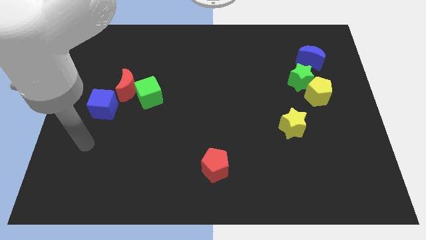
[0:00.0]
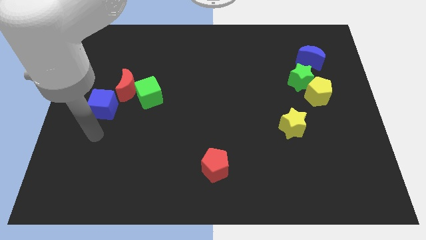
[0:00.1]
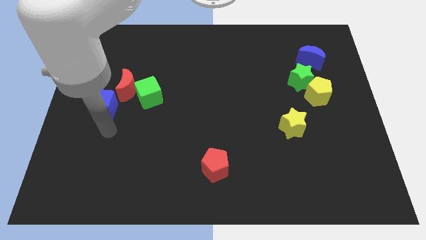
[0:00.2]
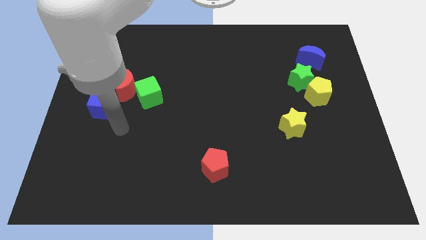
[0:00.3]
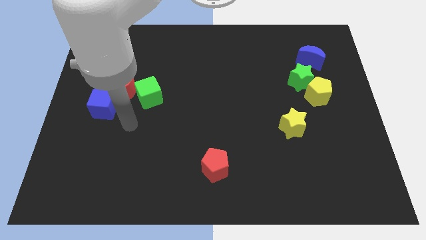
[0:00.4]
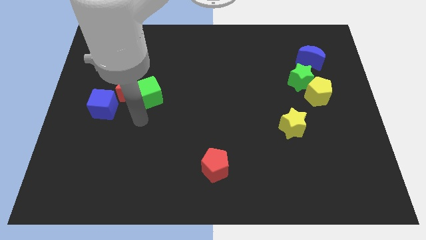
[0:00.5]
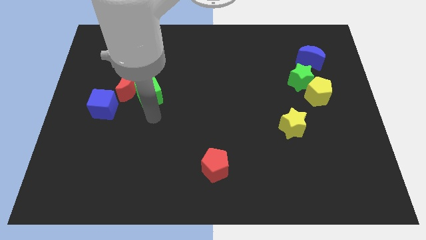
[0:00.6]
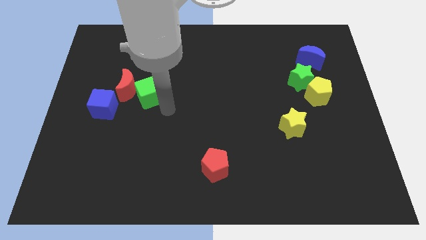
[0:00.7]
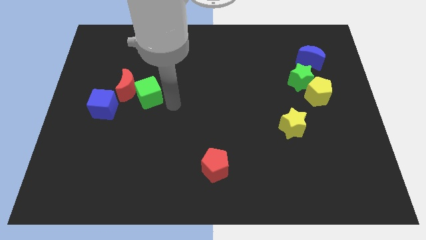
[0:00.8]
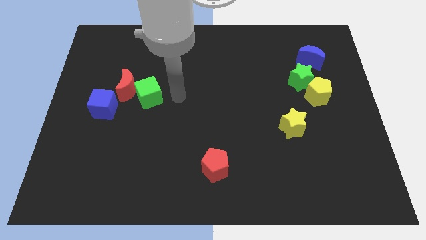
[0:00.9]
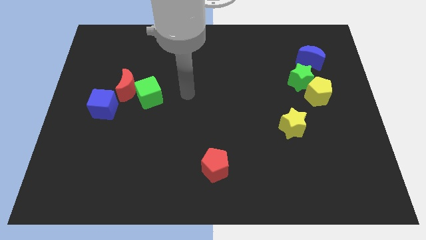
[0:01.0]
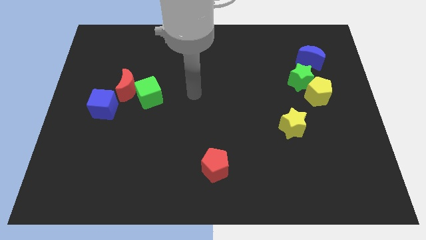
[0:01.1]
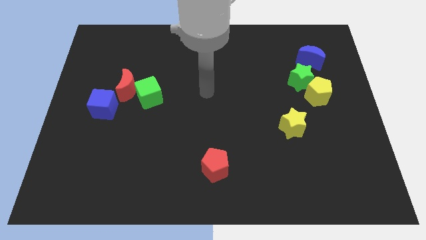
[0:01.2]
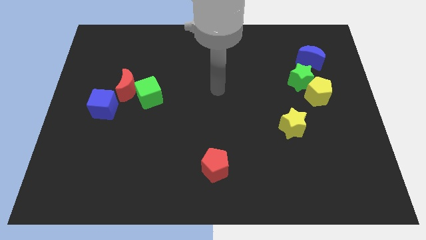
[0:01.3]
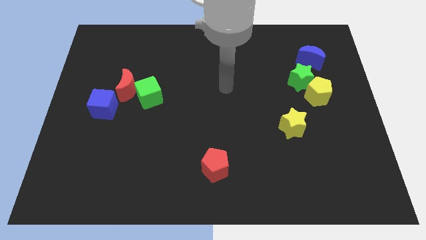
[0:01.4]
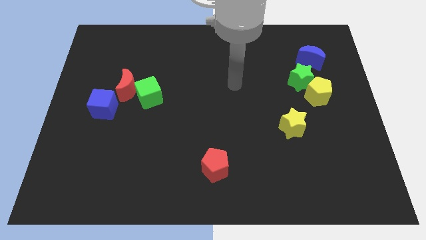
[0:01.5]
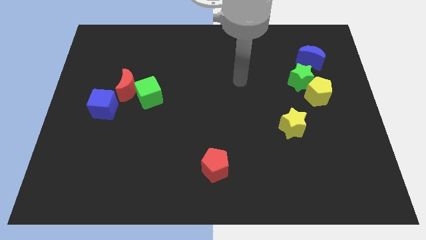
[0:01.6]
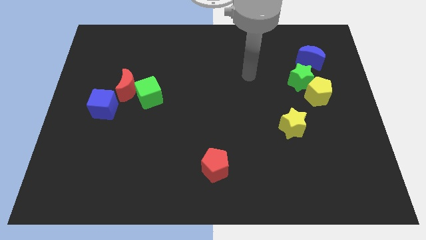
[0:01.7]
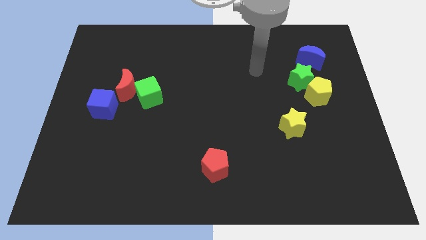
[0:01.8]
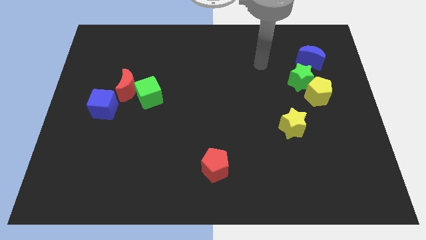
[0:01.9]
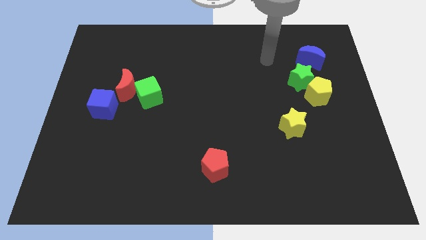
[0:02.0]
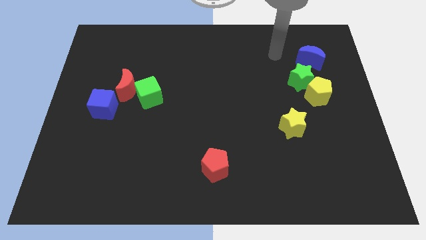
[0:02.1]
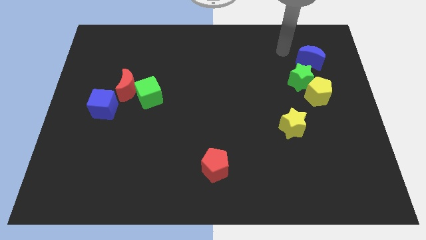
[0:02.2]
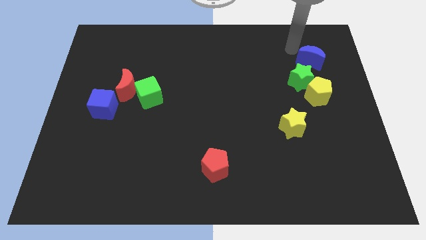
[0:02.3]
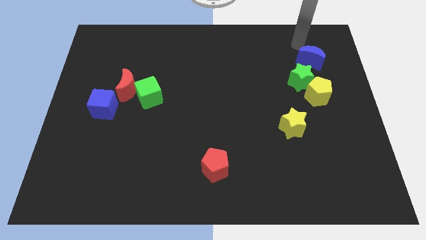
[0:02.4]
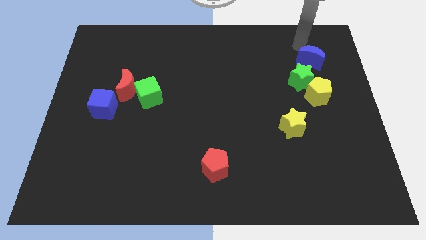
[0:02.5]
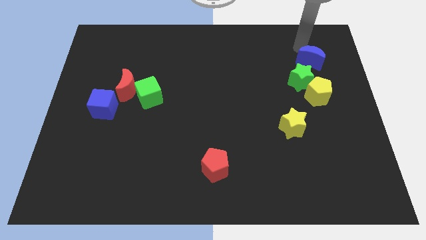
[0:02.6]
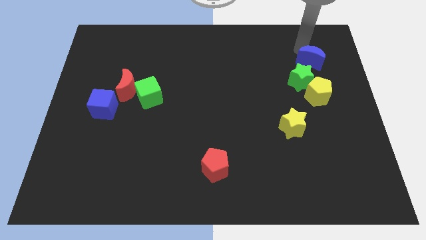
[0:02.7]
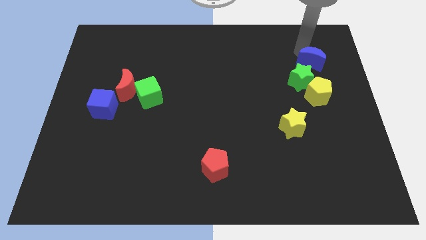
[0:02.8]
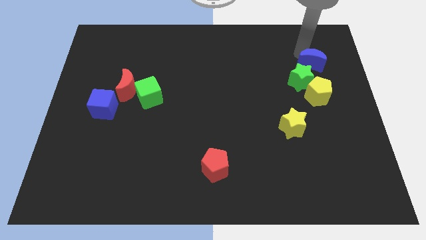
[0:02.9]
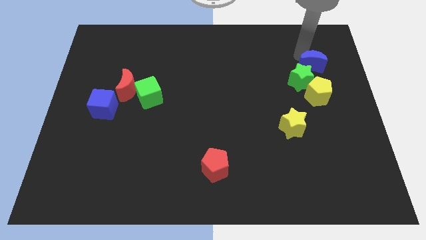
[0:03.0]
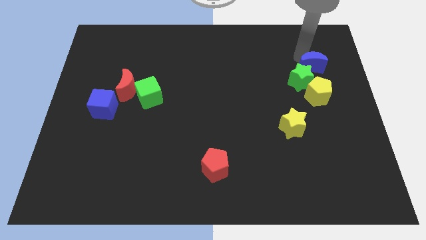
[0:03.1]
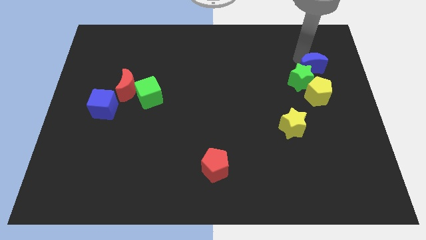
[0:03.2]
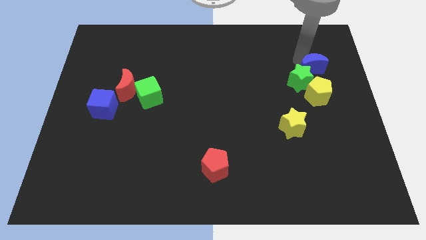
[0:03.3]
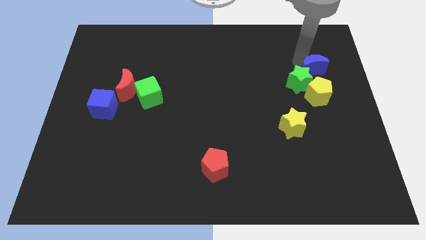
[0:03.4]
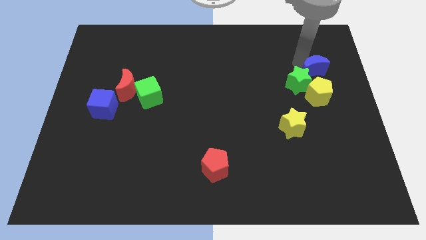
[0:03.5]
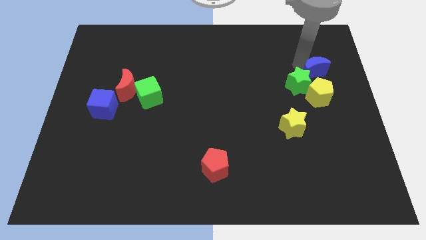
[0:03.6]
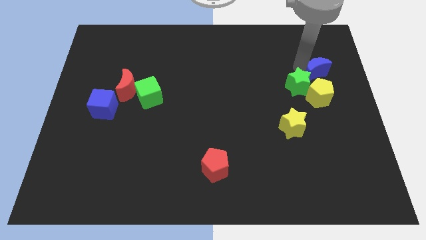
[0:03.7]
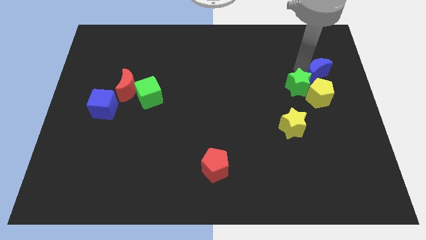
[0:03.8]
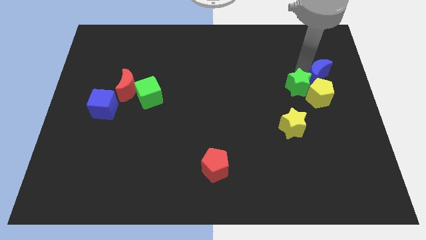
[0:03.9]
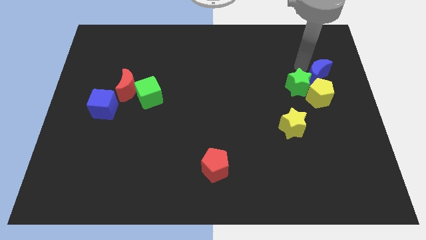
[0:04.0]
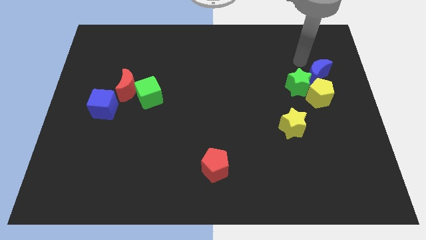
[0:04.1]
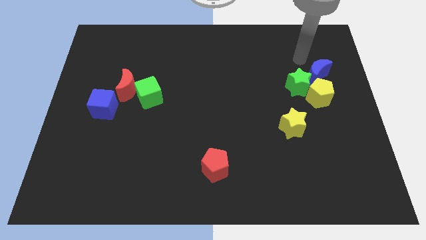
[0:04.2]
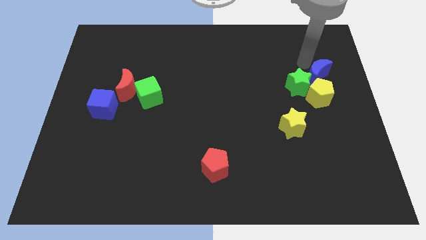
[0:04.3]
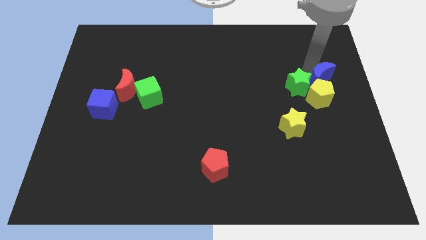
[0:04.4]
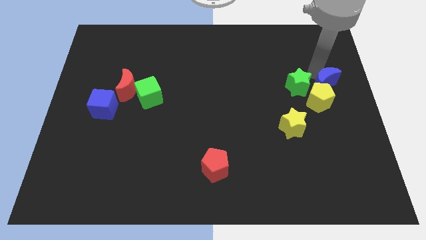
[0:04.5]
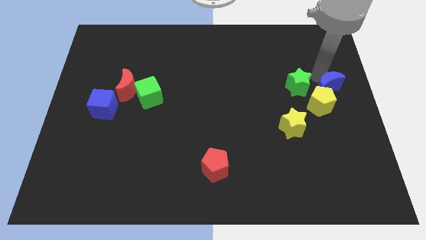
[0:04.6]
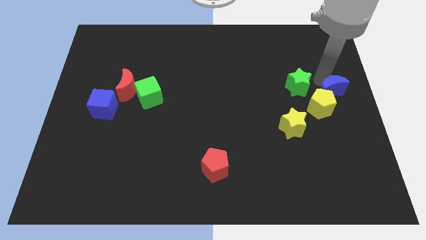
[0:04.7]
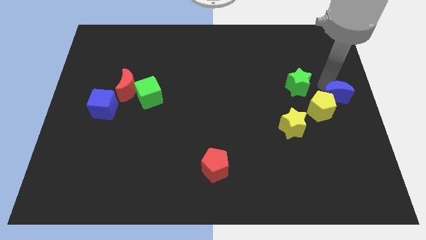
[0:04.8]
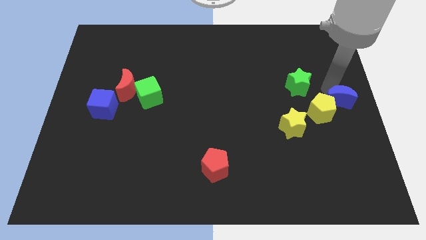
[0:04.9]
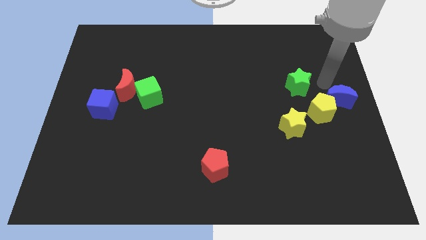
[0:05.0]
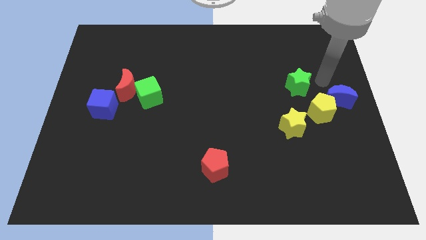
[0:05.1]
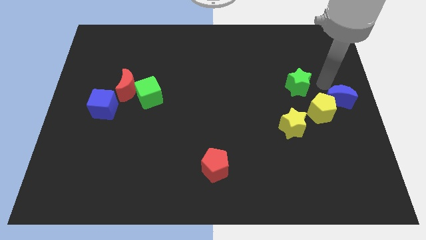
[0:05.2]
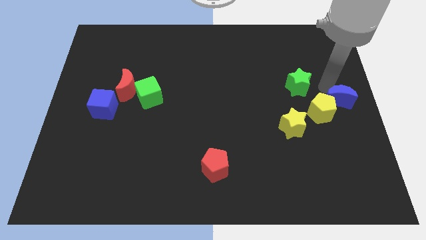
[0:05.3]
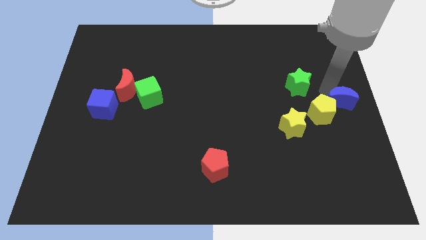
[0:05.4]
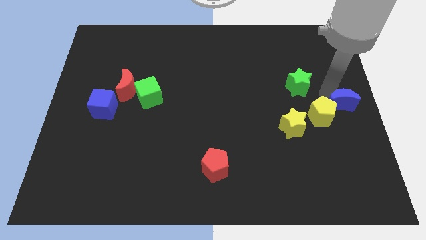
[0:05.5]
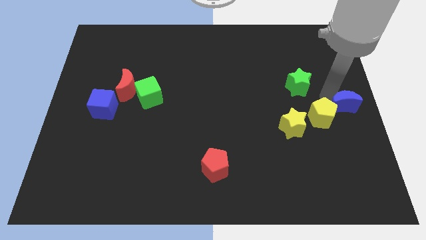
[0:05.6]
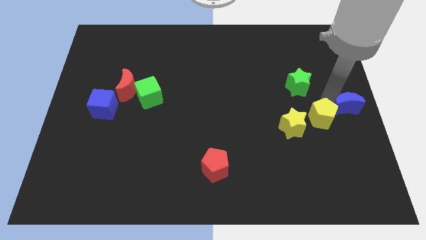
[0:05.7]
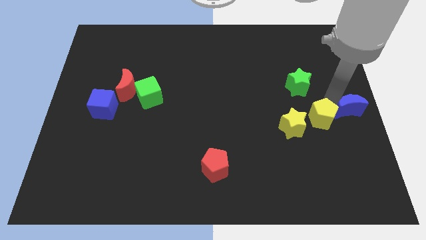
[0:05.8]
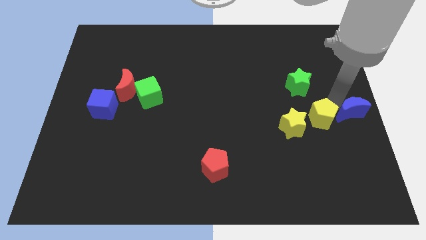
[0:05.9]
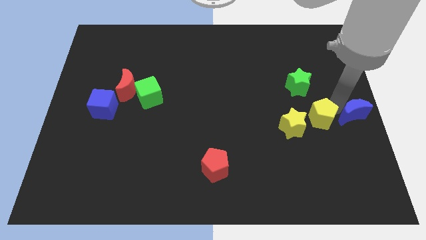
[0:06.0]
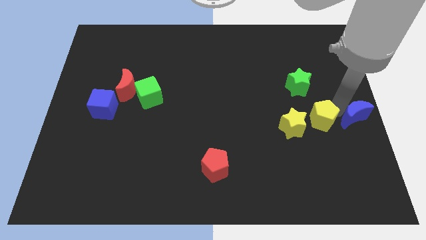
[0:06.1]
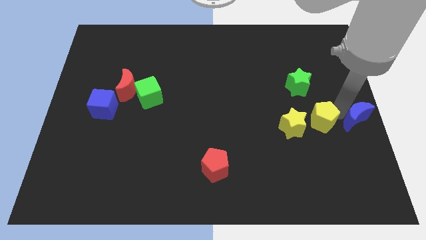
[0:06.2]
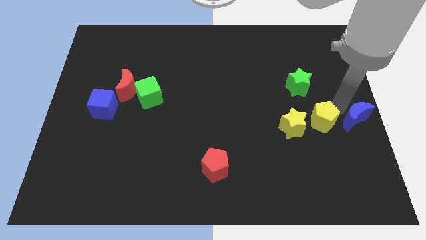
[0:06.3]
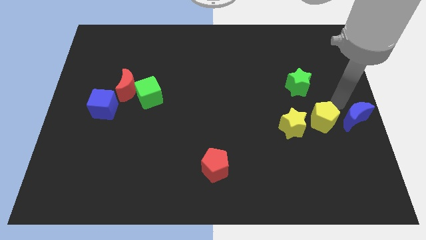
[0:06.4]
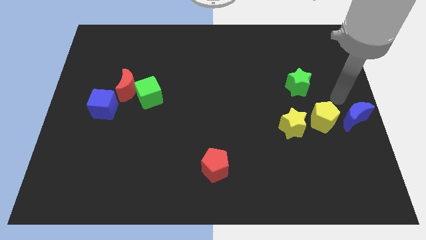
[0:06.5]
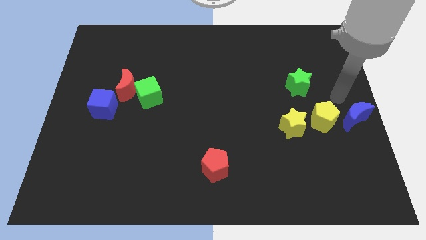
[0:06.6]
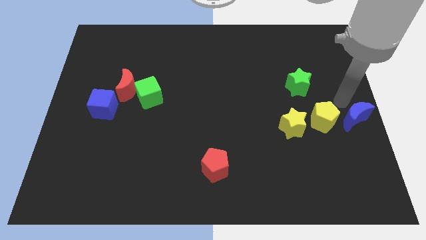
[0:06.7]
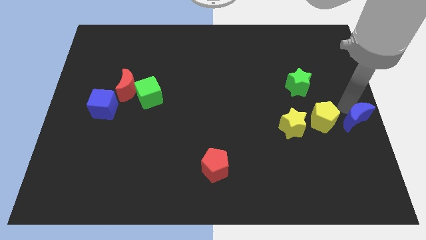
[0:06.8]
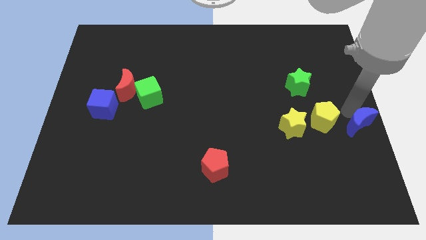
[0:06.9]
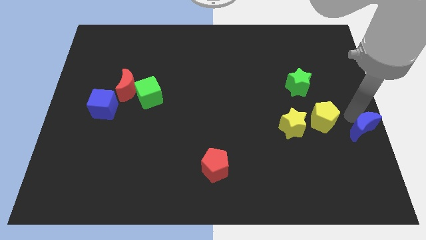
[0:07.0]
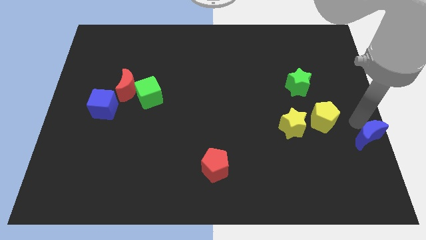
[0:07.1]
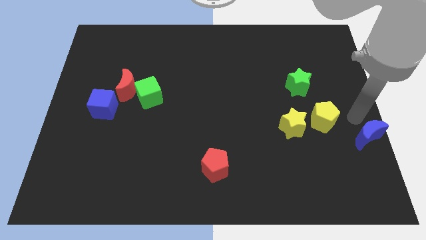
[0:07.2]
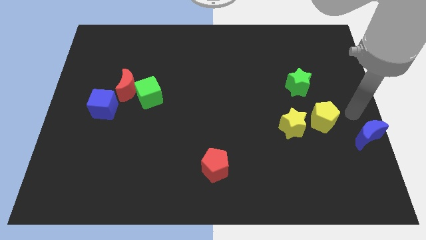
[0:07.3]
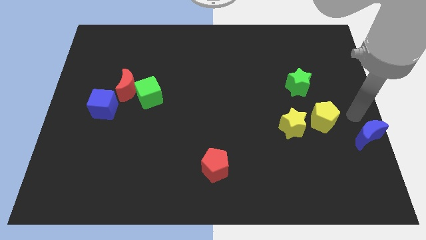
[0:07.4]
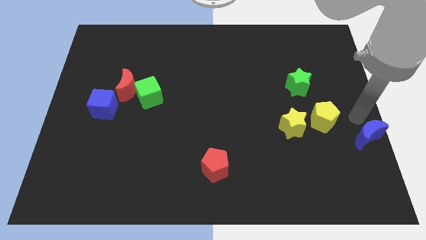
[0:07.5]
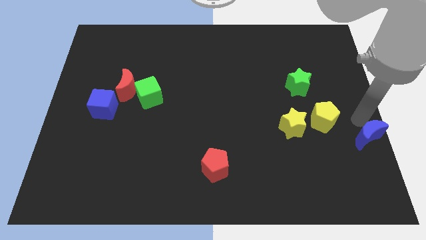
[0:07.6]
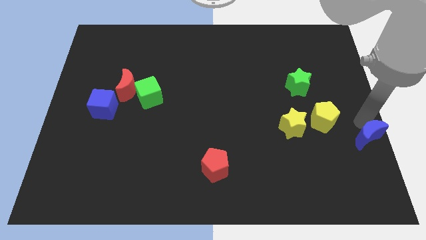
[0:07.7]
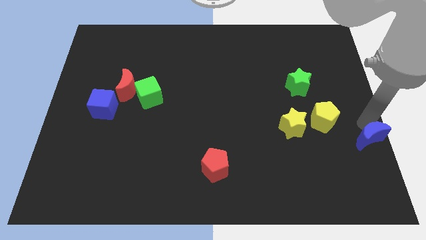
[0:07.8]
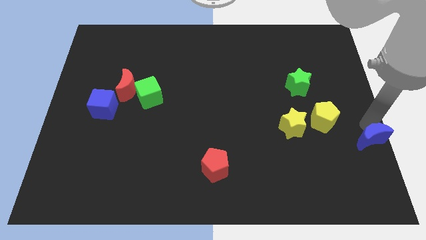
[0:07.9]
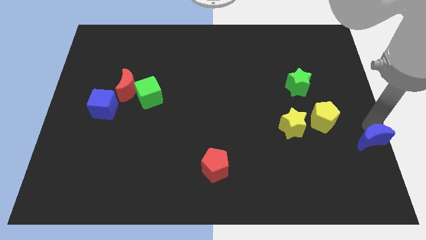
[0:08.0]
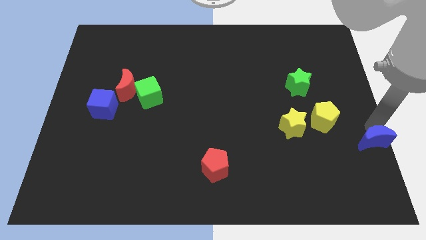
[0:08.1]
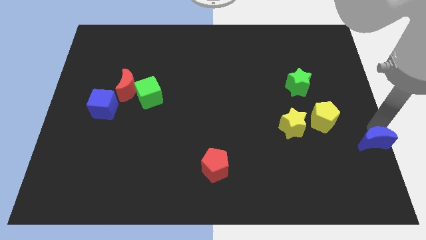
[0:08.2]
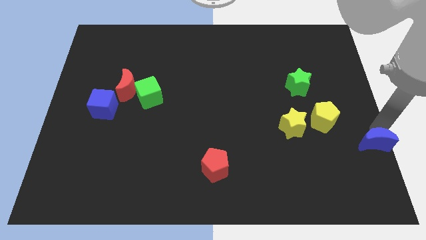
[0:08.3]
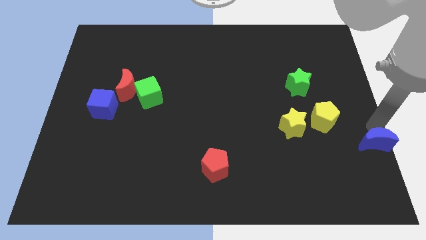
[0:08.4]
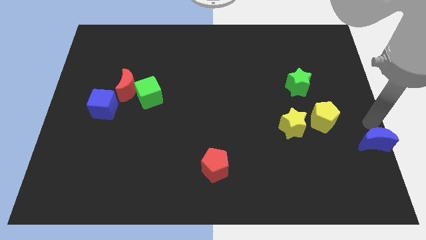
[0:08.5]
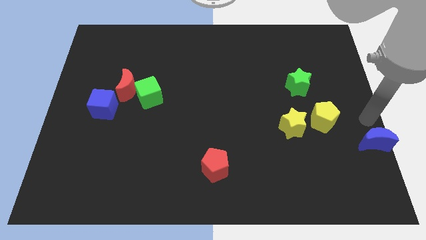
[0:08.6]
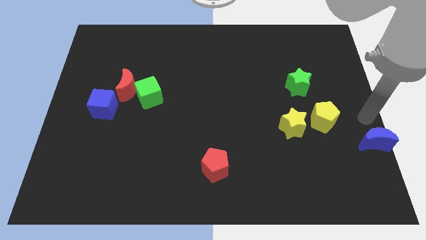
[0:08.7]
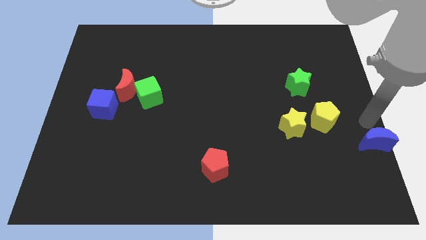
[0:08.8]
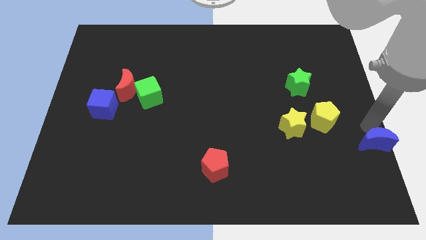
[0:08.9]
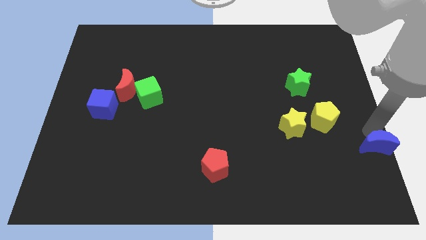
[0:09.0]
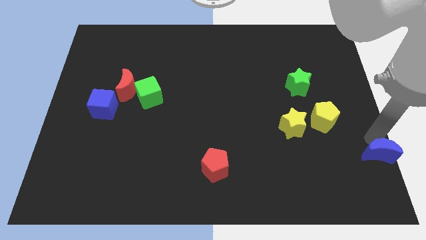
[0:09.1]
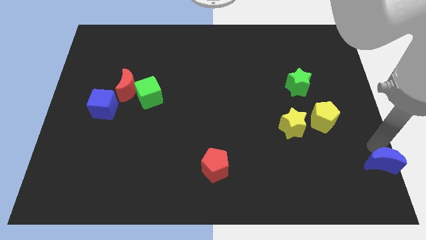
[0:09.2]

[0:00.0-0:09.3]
move the blue moon to the bottom right of the board
